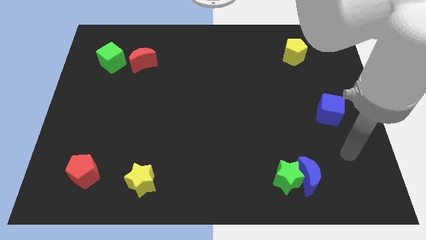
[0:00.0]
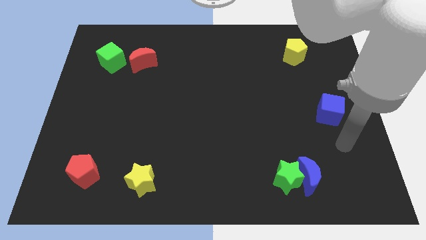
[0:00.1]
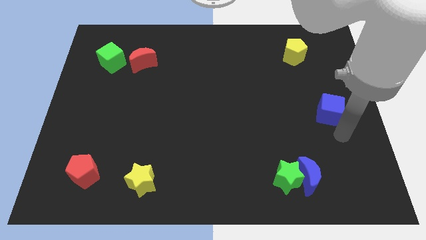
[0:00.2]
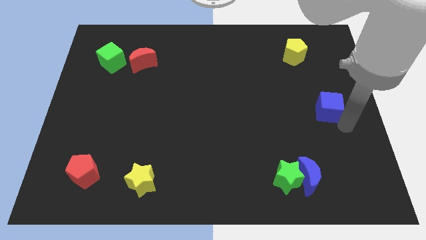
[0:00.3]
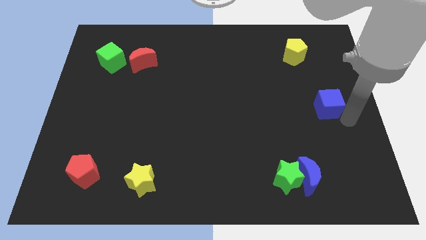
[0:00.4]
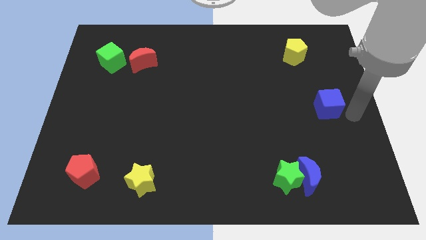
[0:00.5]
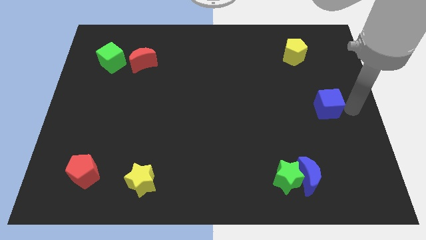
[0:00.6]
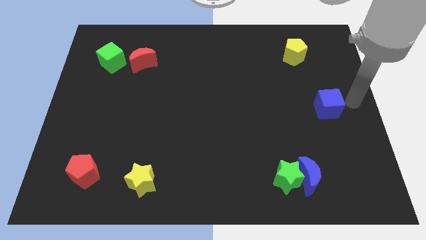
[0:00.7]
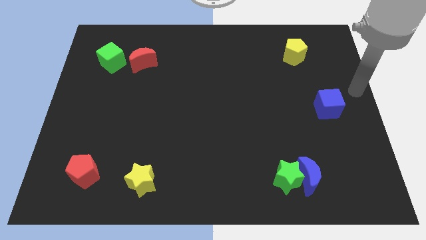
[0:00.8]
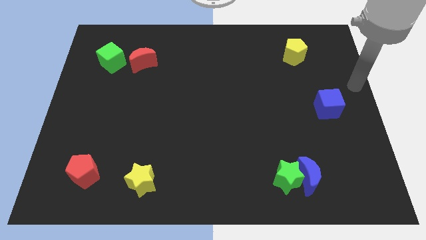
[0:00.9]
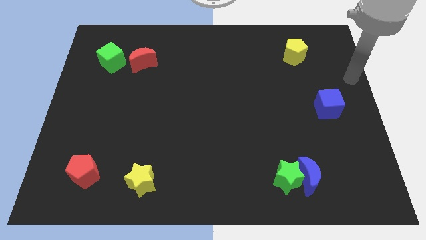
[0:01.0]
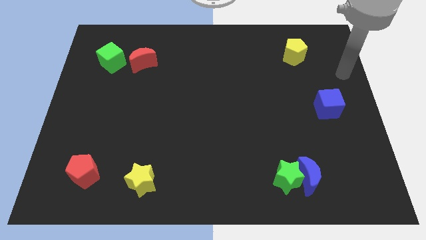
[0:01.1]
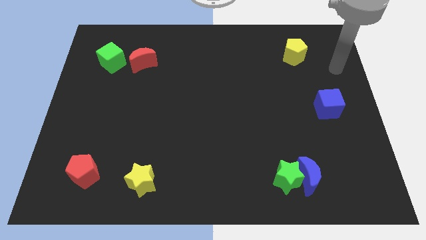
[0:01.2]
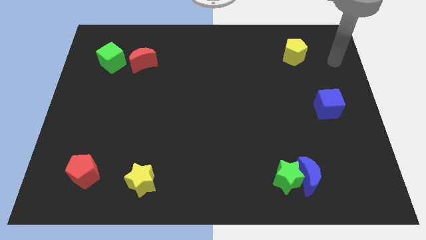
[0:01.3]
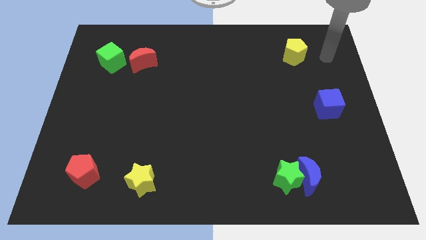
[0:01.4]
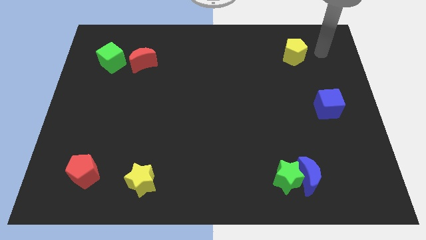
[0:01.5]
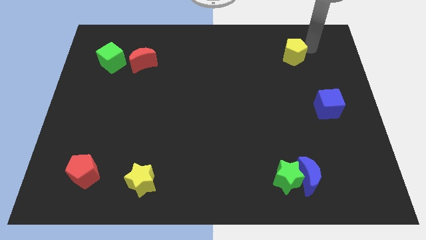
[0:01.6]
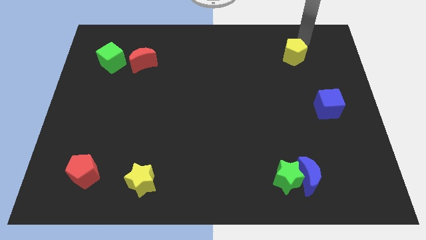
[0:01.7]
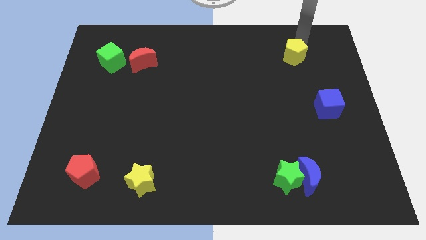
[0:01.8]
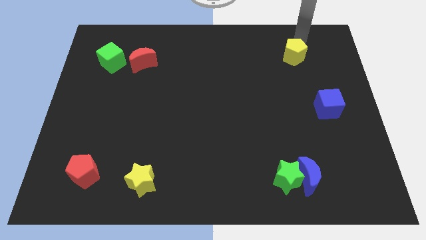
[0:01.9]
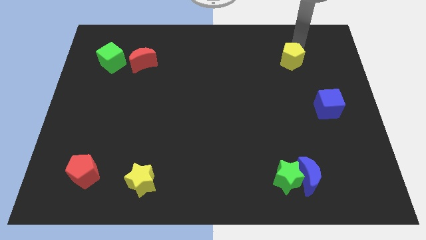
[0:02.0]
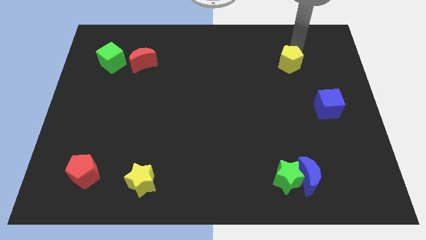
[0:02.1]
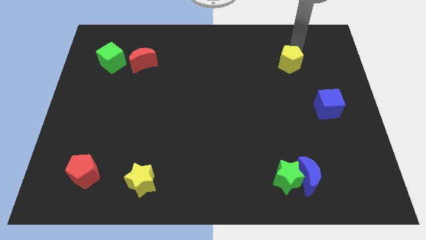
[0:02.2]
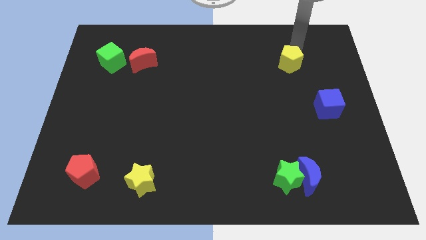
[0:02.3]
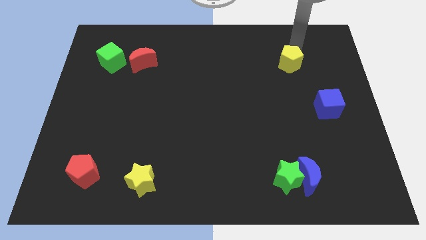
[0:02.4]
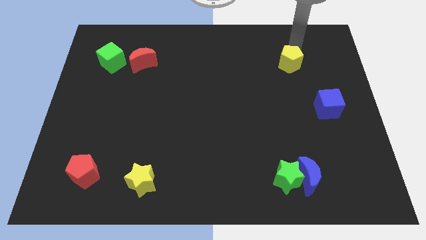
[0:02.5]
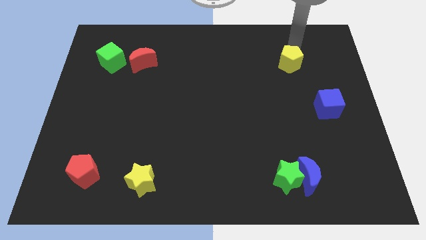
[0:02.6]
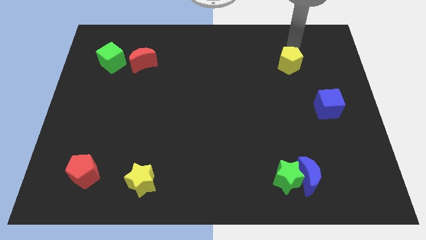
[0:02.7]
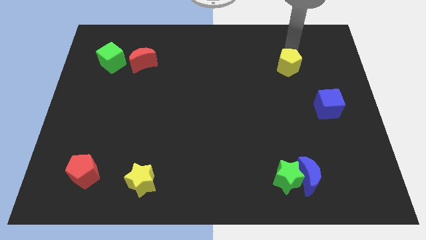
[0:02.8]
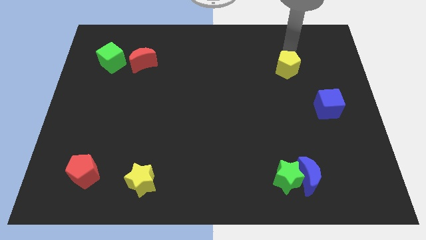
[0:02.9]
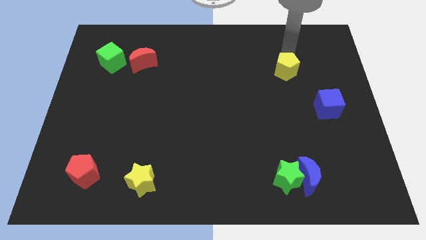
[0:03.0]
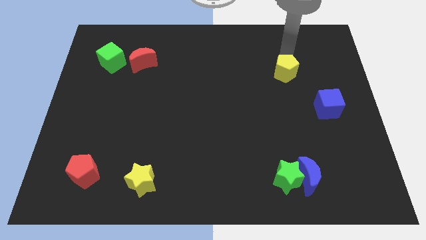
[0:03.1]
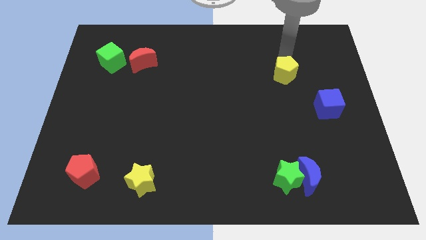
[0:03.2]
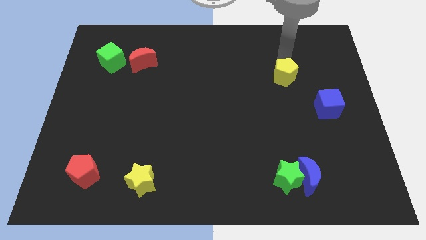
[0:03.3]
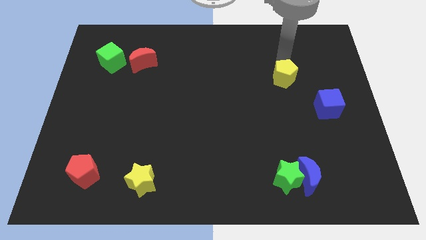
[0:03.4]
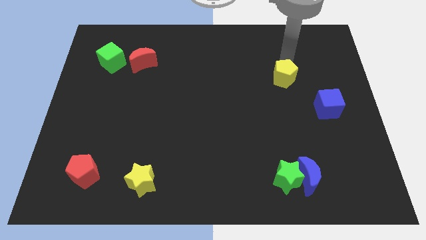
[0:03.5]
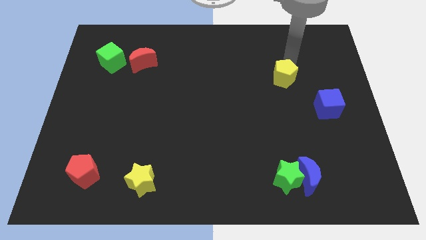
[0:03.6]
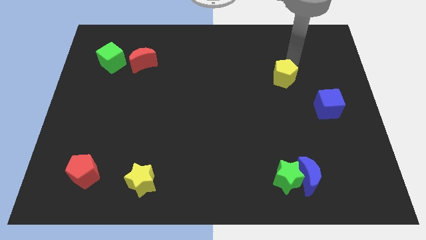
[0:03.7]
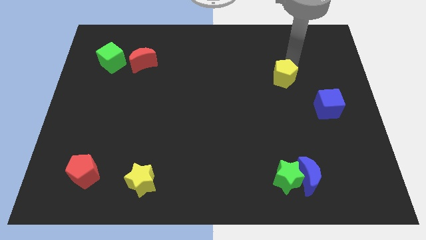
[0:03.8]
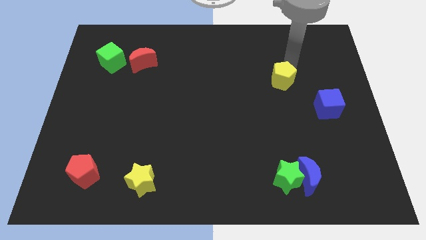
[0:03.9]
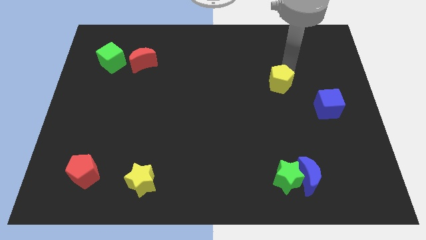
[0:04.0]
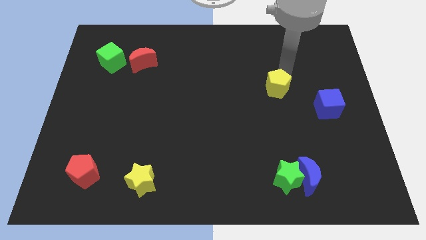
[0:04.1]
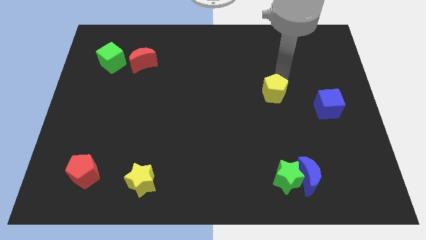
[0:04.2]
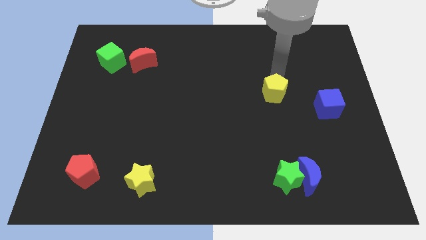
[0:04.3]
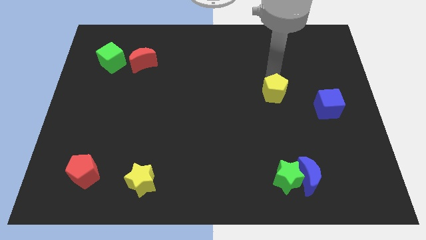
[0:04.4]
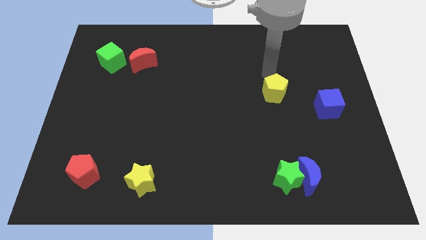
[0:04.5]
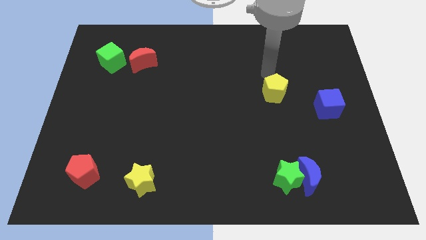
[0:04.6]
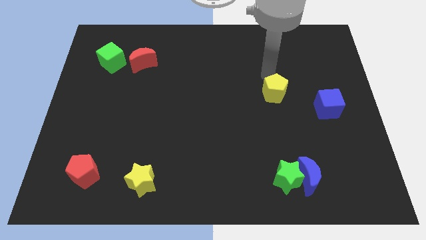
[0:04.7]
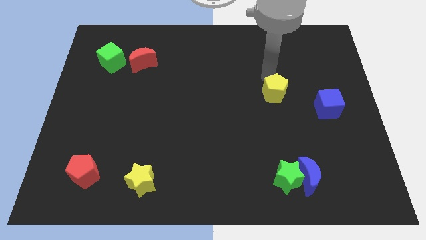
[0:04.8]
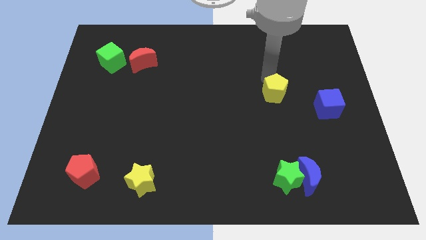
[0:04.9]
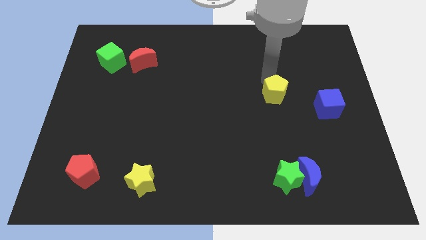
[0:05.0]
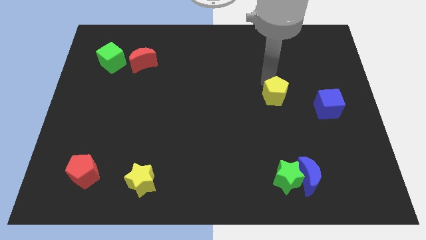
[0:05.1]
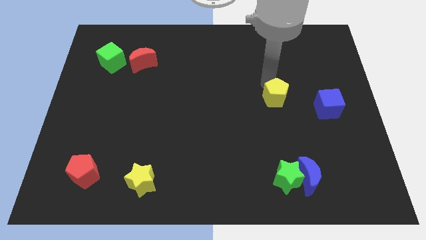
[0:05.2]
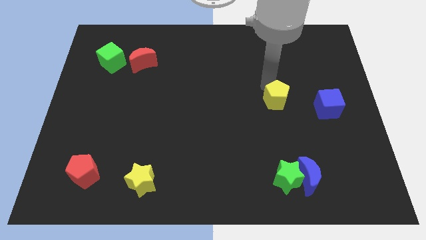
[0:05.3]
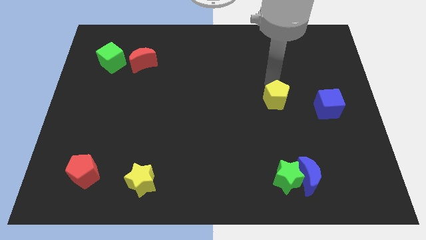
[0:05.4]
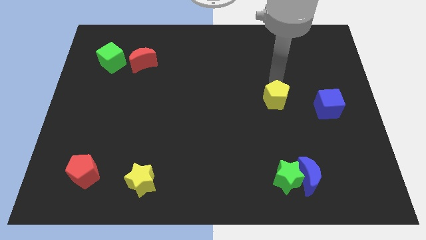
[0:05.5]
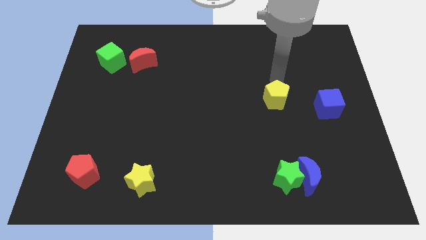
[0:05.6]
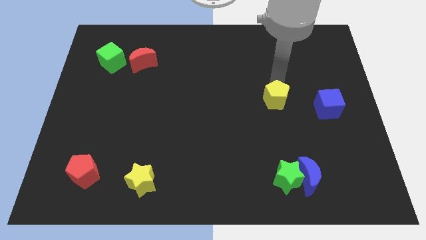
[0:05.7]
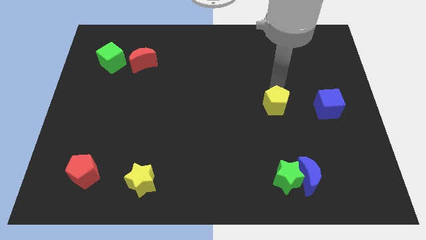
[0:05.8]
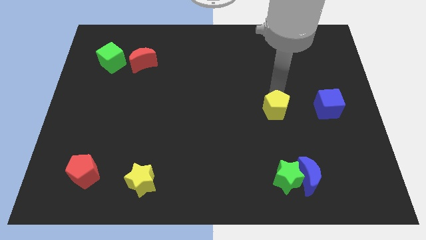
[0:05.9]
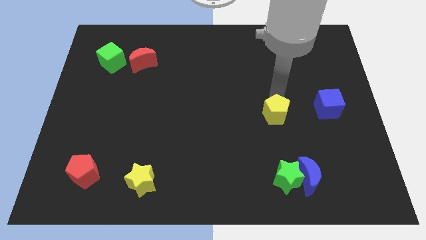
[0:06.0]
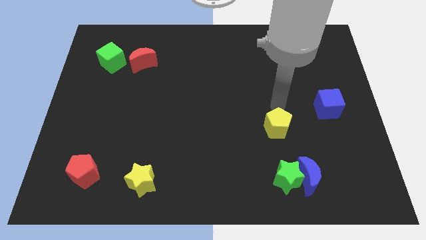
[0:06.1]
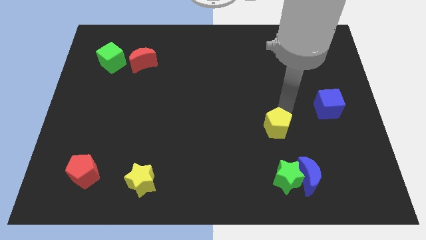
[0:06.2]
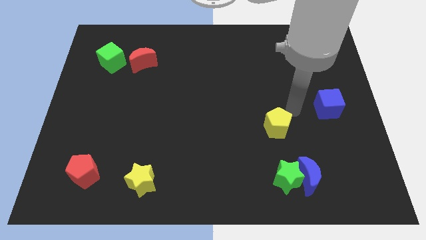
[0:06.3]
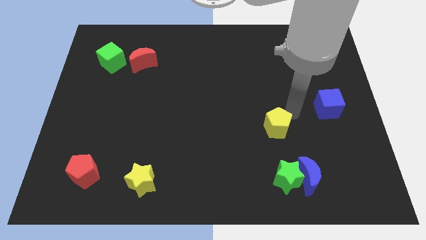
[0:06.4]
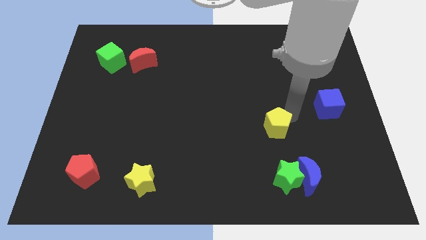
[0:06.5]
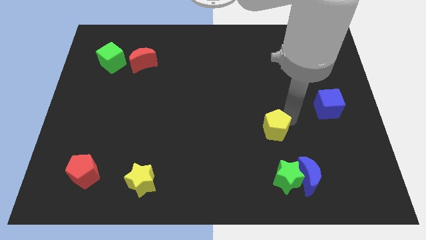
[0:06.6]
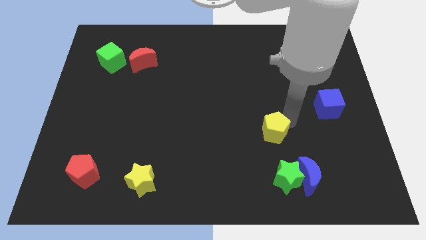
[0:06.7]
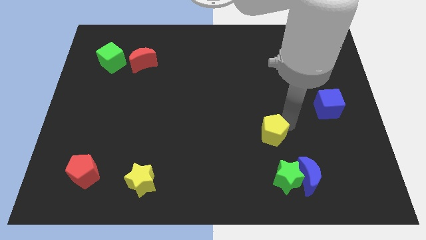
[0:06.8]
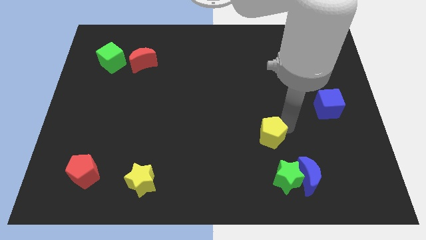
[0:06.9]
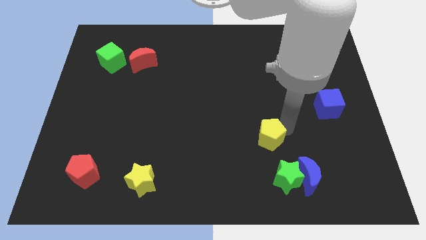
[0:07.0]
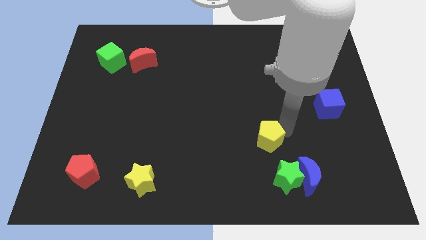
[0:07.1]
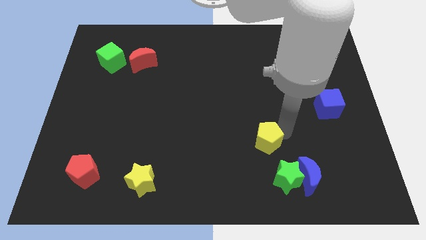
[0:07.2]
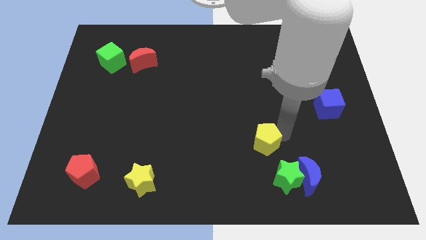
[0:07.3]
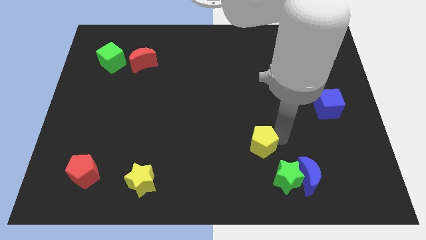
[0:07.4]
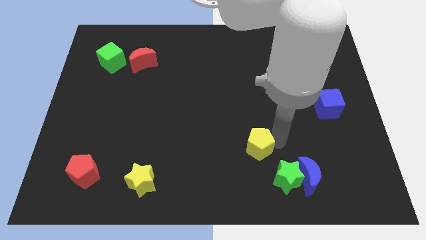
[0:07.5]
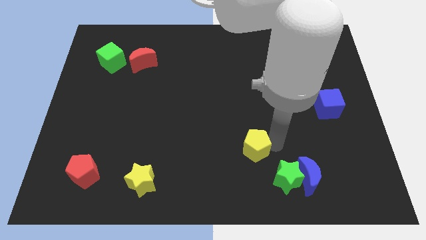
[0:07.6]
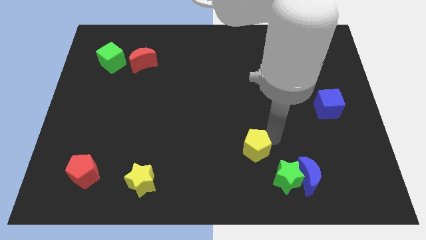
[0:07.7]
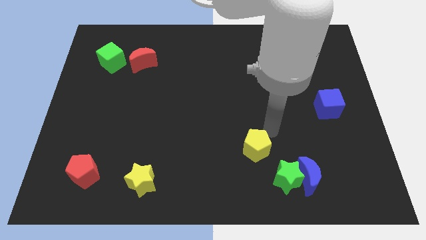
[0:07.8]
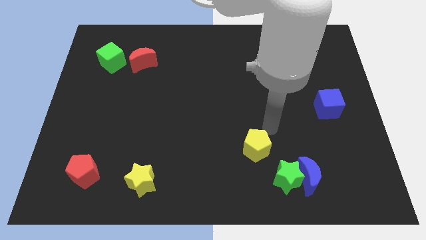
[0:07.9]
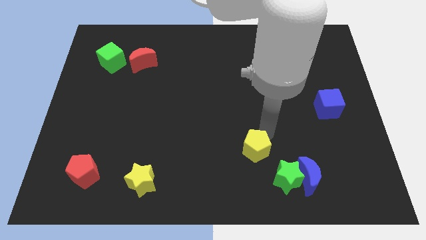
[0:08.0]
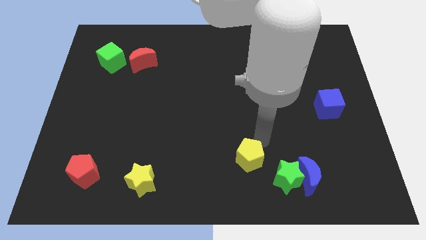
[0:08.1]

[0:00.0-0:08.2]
put the yellow pentagon just left of the green star
